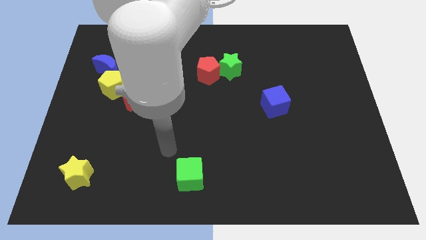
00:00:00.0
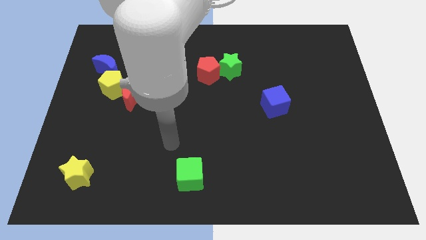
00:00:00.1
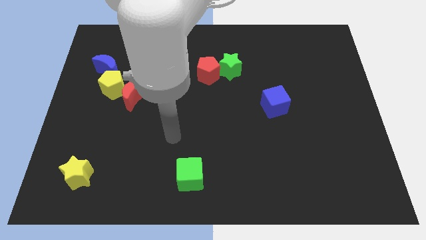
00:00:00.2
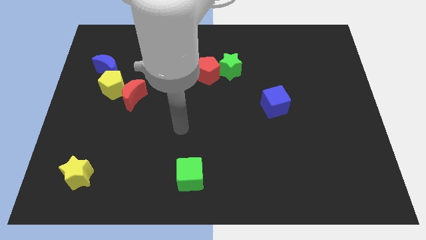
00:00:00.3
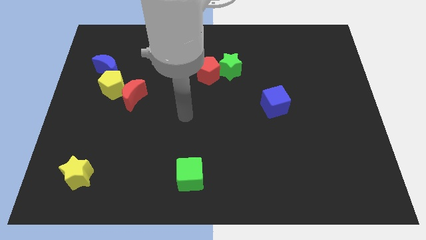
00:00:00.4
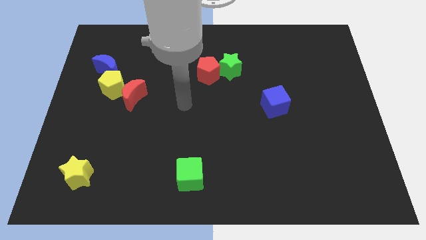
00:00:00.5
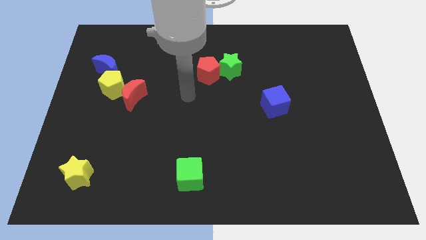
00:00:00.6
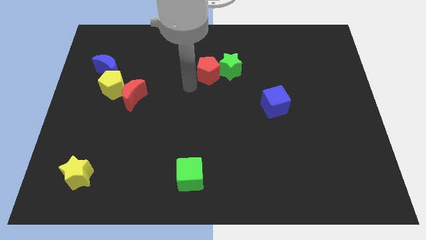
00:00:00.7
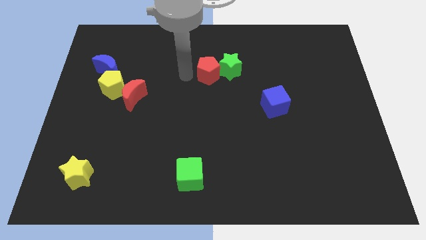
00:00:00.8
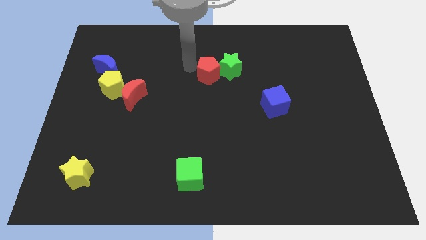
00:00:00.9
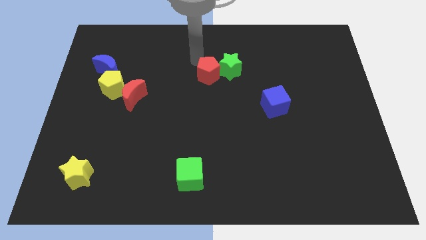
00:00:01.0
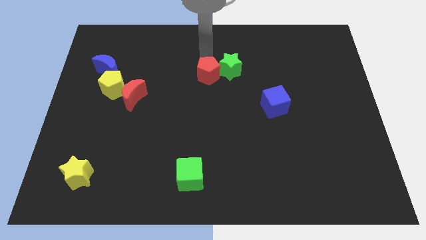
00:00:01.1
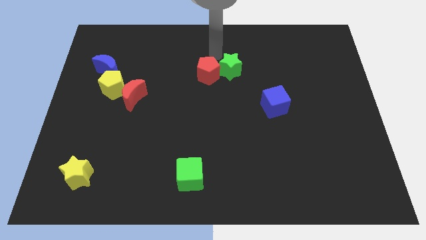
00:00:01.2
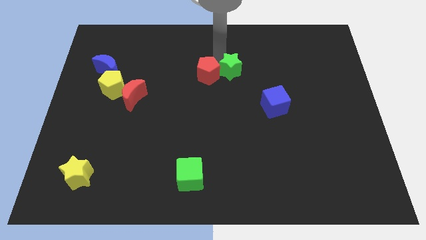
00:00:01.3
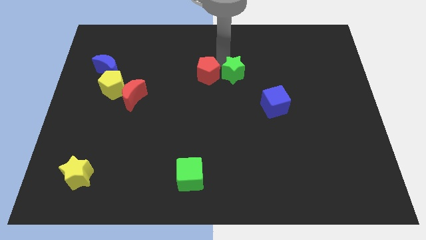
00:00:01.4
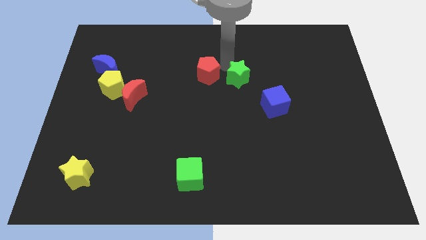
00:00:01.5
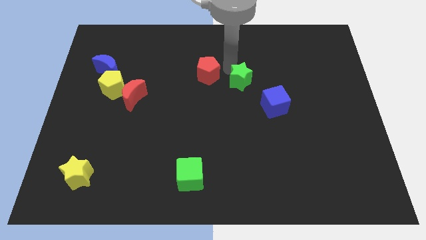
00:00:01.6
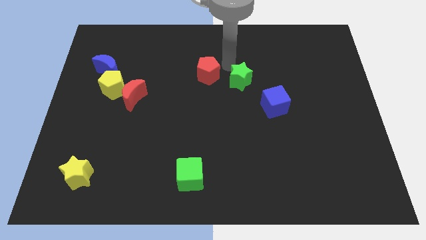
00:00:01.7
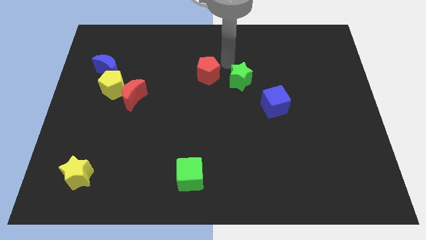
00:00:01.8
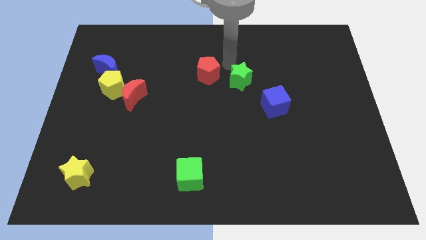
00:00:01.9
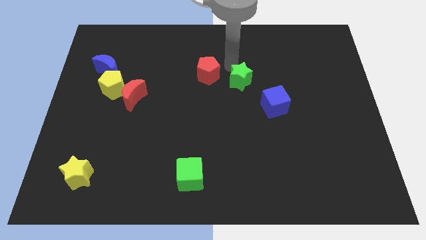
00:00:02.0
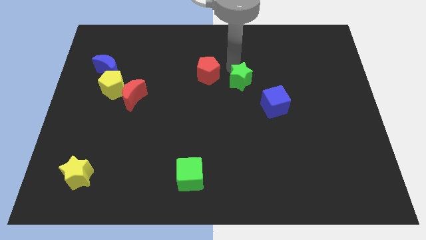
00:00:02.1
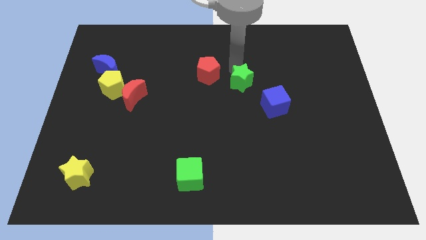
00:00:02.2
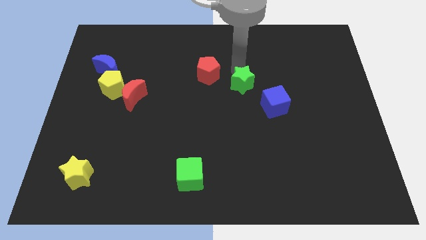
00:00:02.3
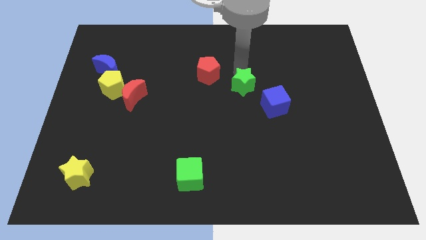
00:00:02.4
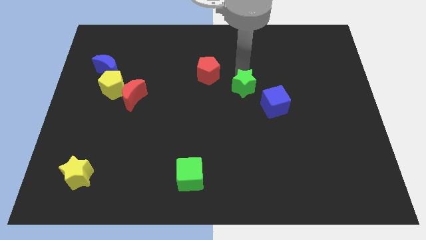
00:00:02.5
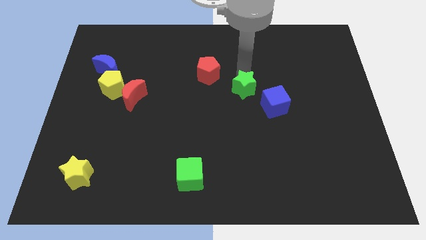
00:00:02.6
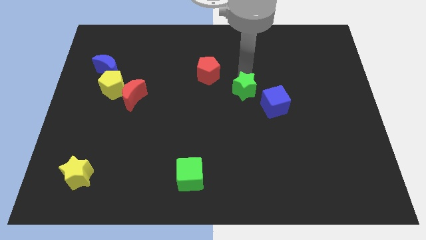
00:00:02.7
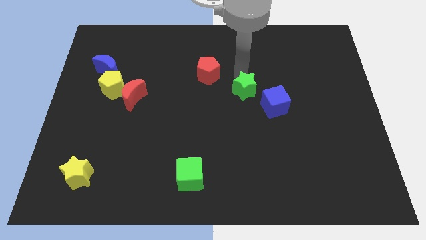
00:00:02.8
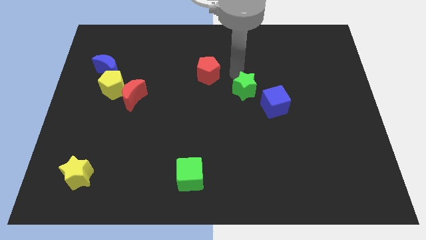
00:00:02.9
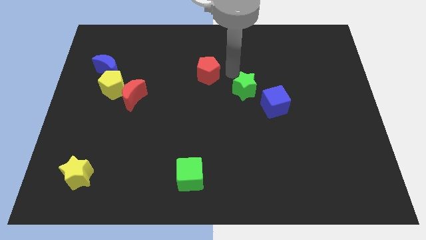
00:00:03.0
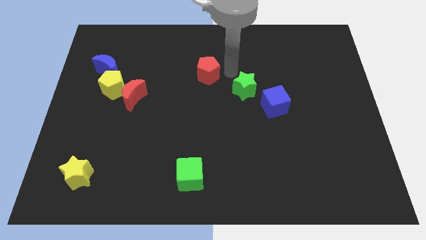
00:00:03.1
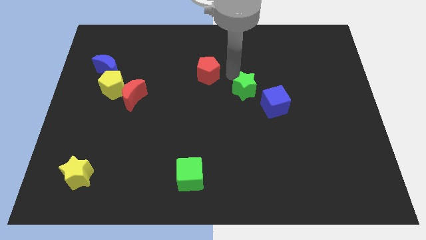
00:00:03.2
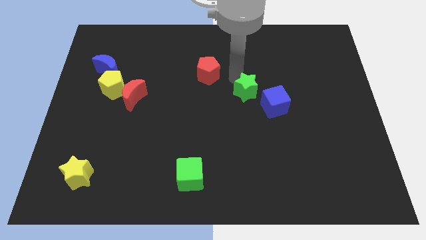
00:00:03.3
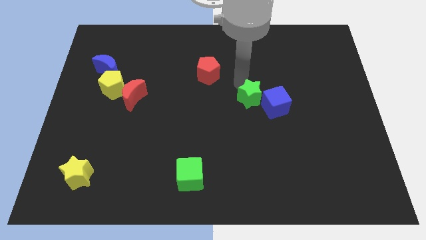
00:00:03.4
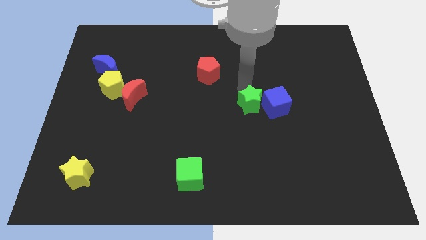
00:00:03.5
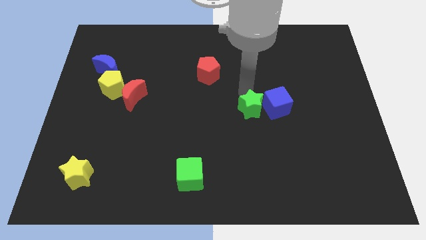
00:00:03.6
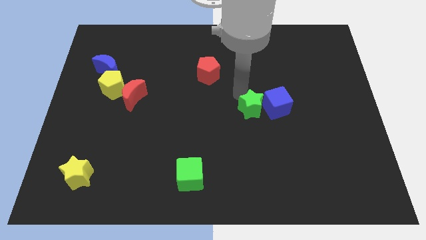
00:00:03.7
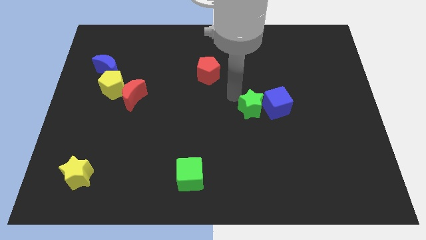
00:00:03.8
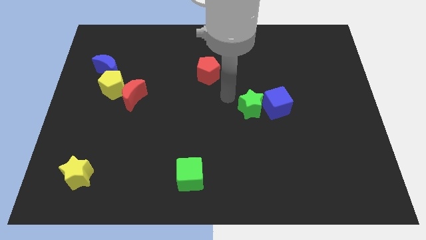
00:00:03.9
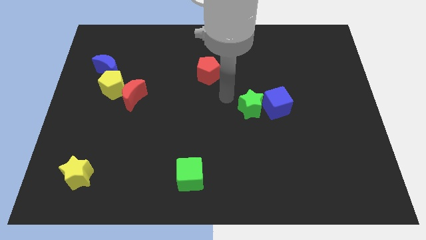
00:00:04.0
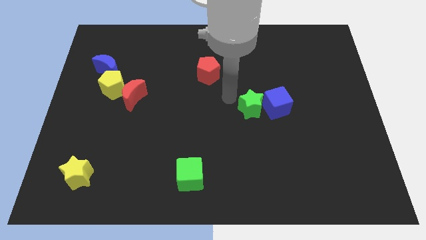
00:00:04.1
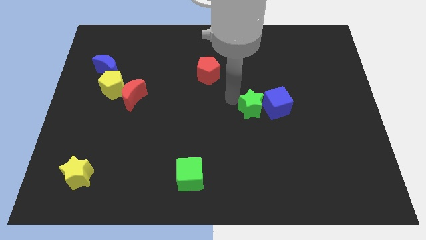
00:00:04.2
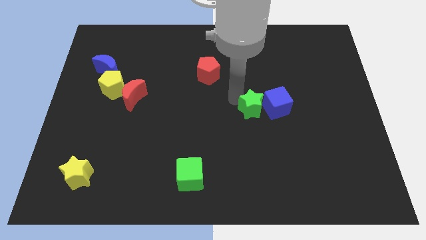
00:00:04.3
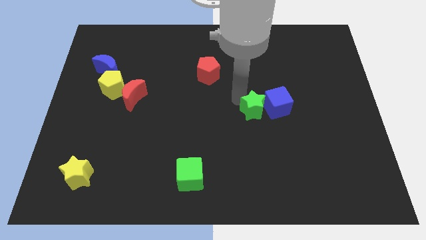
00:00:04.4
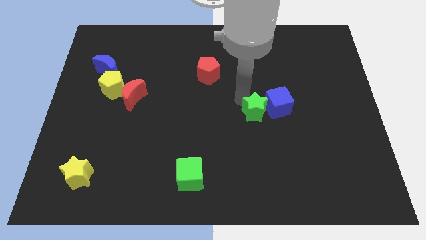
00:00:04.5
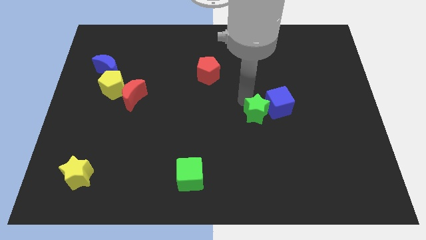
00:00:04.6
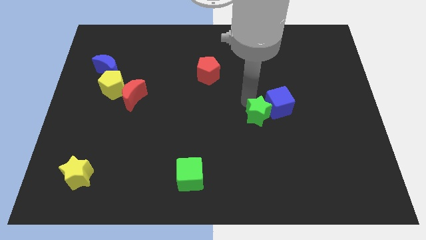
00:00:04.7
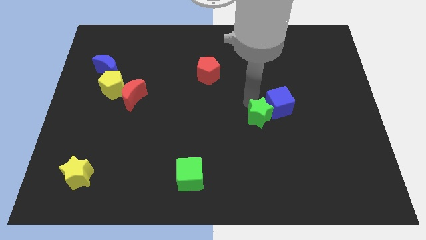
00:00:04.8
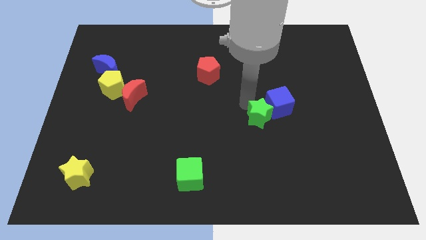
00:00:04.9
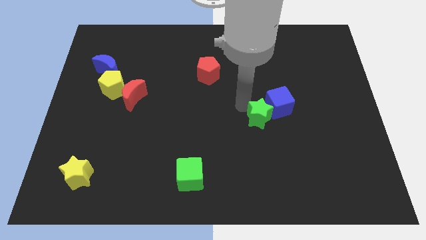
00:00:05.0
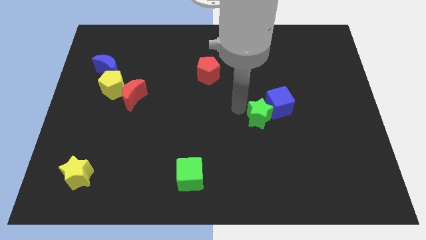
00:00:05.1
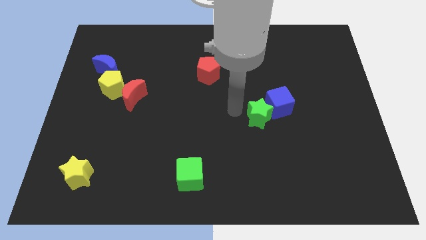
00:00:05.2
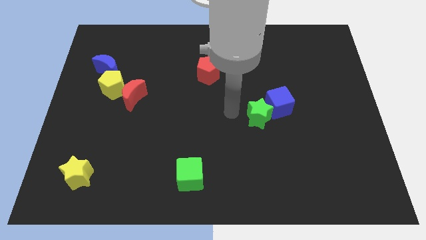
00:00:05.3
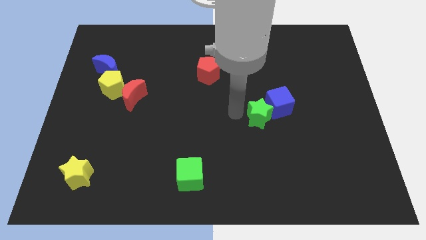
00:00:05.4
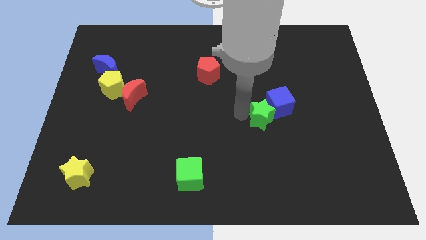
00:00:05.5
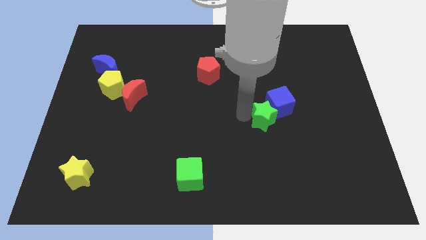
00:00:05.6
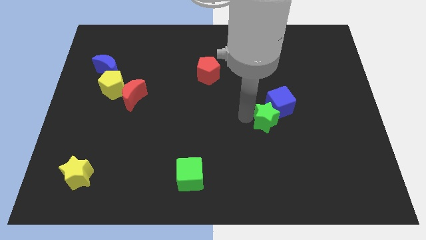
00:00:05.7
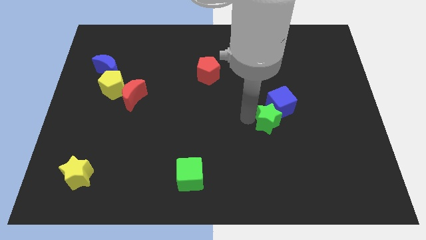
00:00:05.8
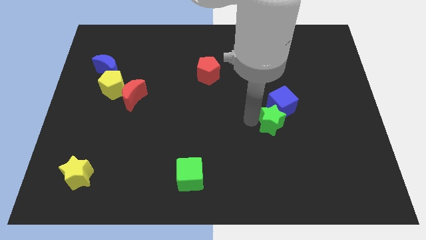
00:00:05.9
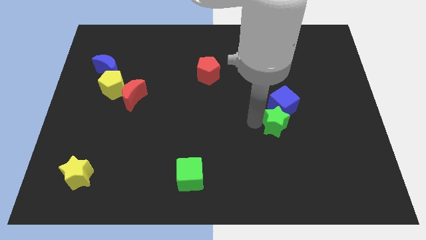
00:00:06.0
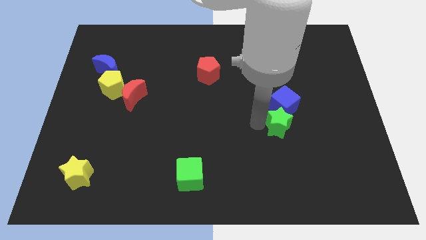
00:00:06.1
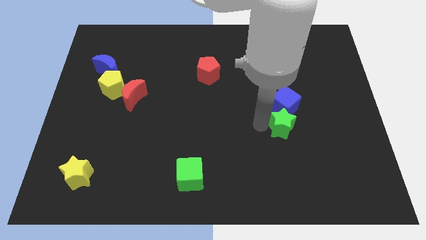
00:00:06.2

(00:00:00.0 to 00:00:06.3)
move the green star to the bottom right side of the blue cube

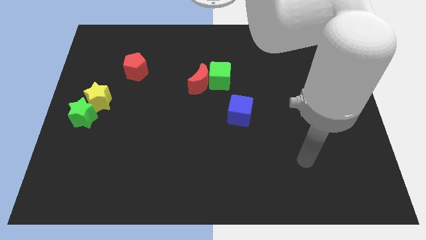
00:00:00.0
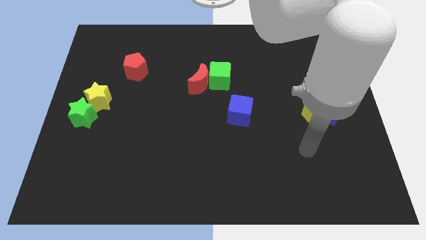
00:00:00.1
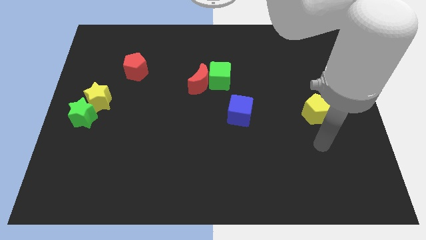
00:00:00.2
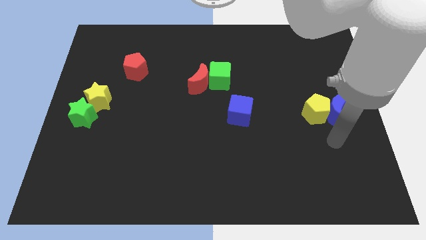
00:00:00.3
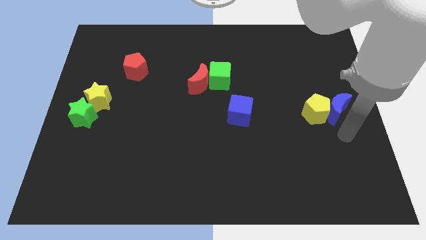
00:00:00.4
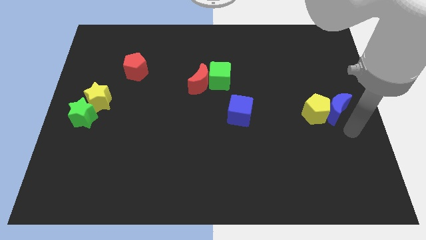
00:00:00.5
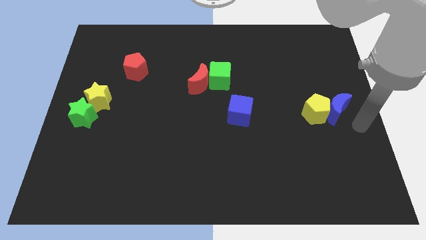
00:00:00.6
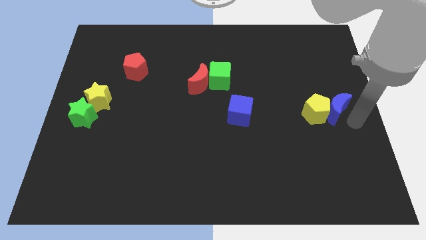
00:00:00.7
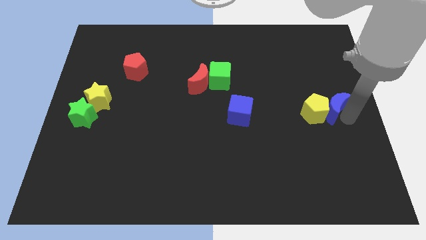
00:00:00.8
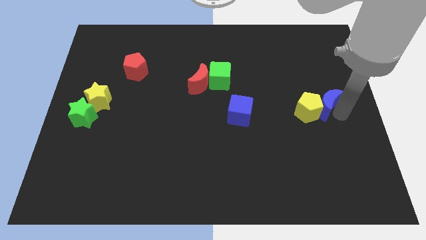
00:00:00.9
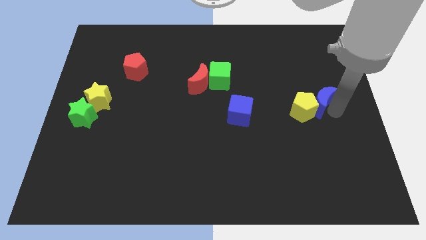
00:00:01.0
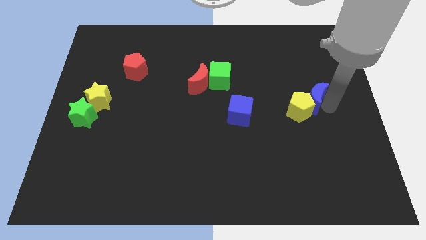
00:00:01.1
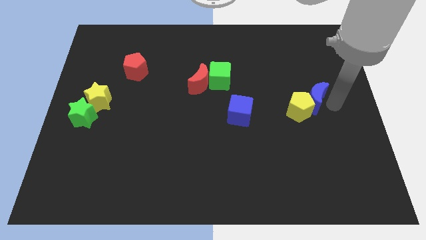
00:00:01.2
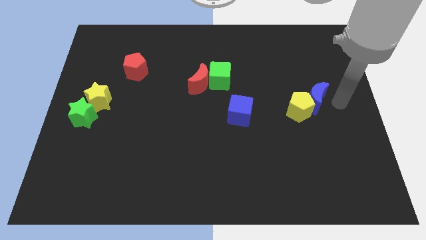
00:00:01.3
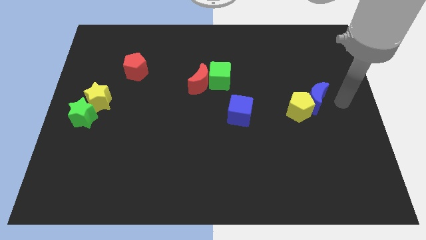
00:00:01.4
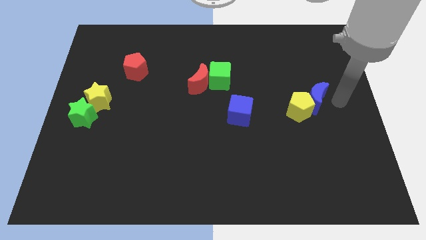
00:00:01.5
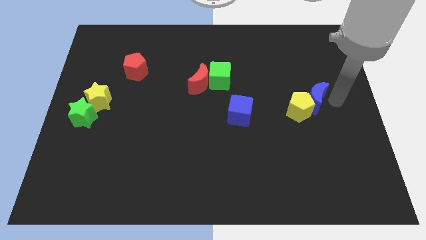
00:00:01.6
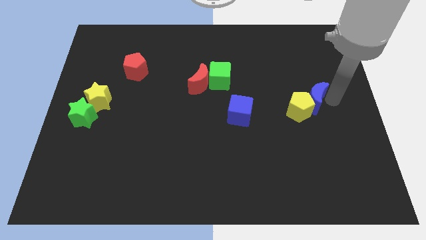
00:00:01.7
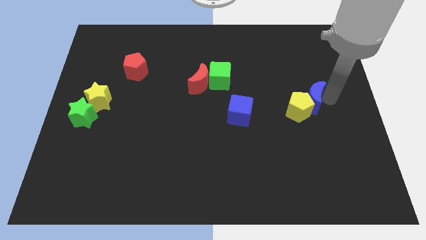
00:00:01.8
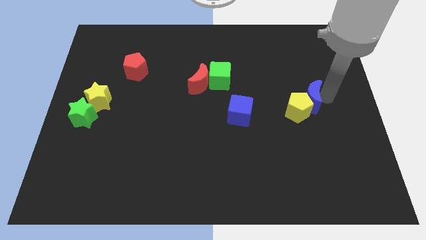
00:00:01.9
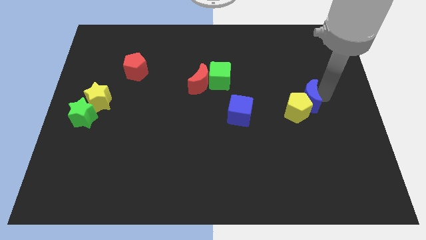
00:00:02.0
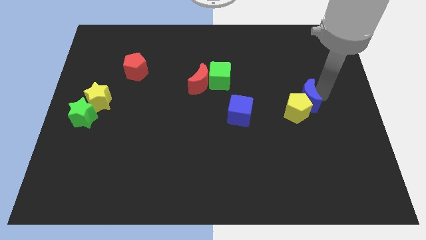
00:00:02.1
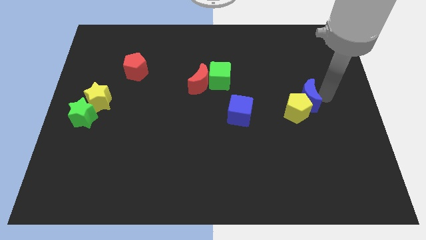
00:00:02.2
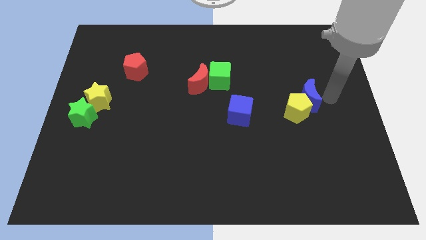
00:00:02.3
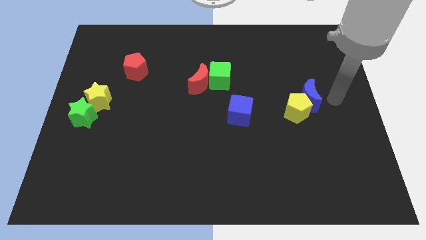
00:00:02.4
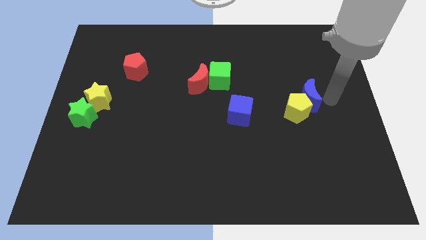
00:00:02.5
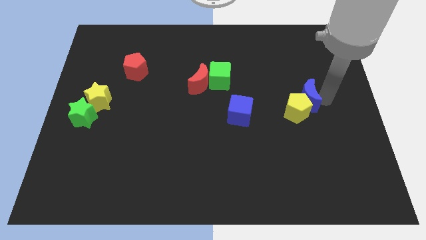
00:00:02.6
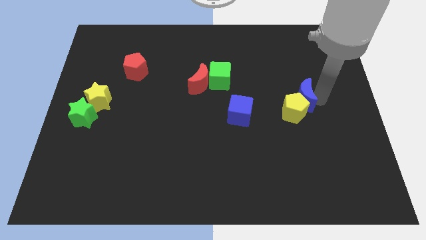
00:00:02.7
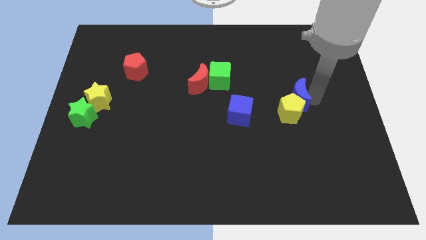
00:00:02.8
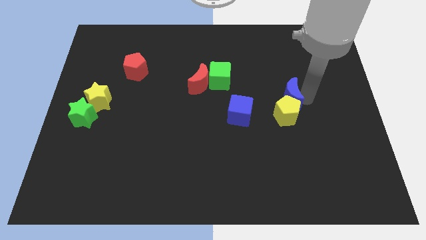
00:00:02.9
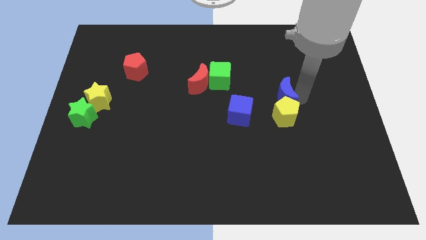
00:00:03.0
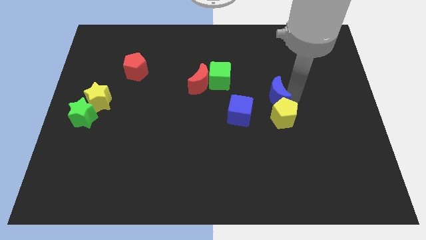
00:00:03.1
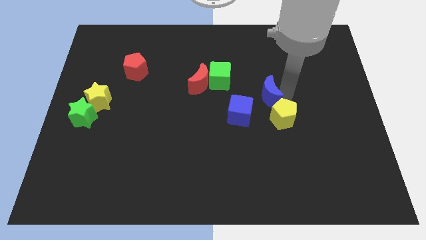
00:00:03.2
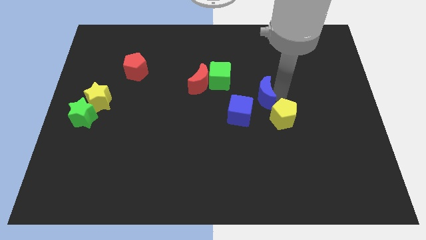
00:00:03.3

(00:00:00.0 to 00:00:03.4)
push the blue moon diagonally down and to the right of the green cube
